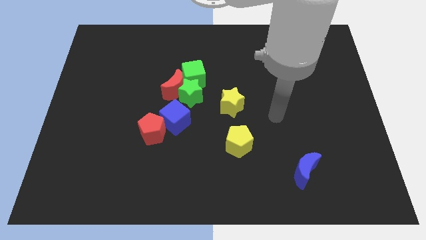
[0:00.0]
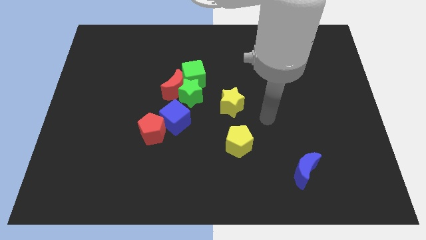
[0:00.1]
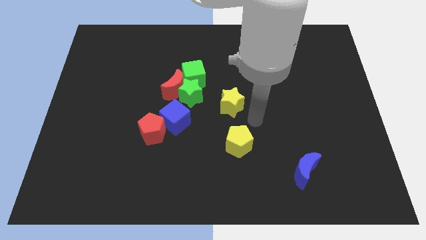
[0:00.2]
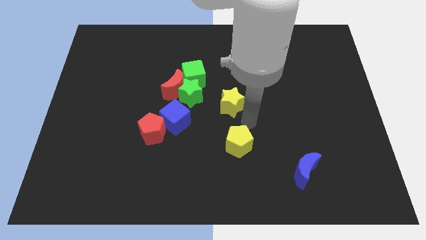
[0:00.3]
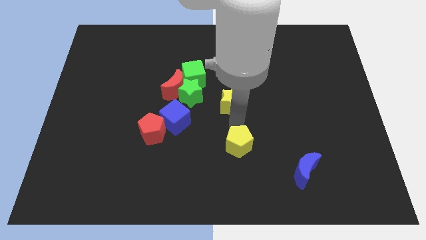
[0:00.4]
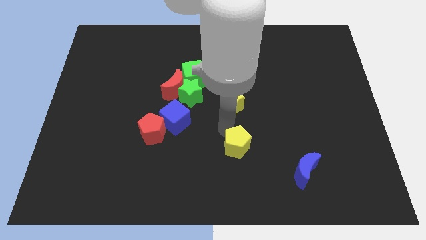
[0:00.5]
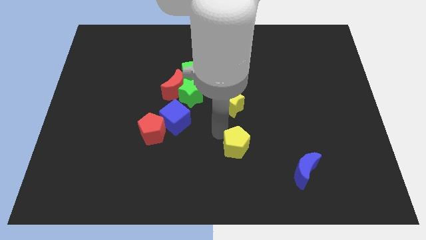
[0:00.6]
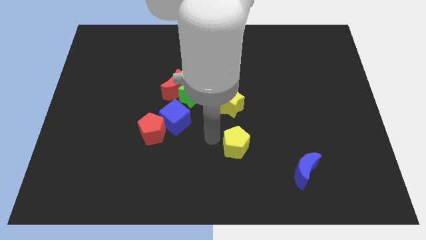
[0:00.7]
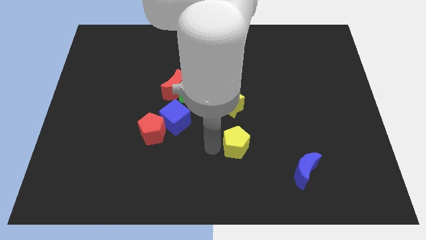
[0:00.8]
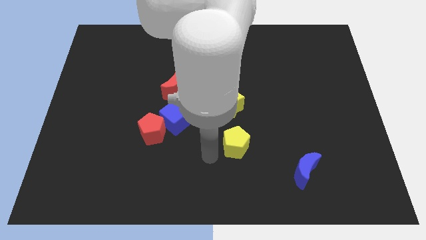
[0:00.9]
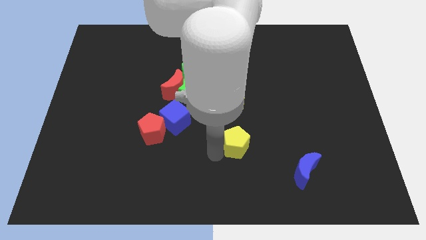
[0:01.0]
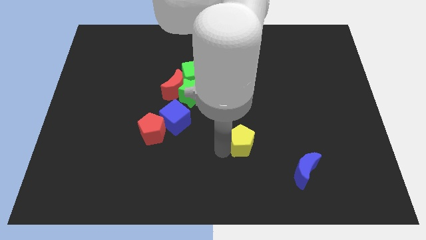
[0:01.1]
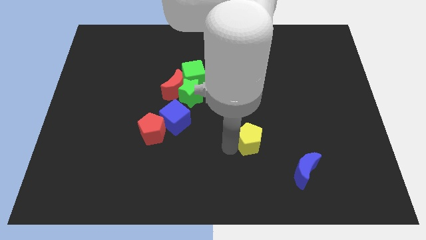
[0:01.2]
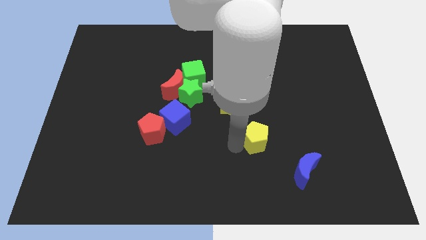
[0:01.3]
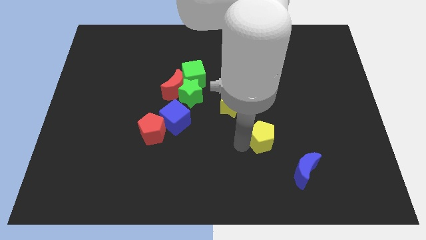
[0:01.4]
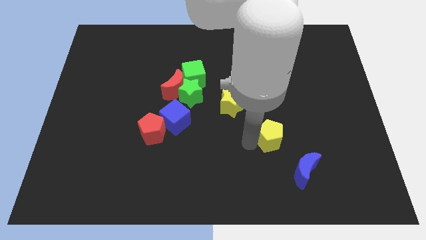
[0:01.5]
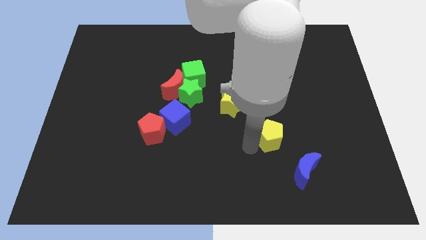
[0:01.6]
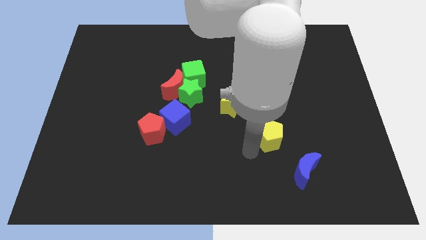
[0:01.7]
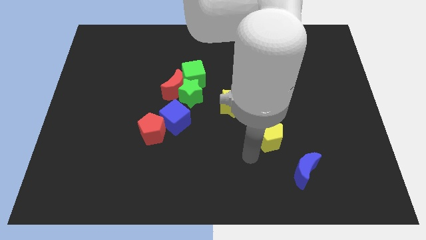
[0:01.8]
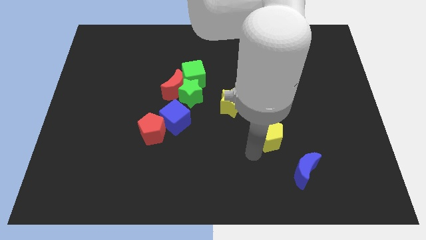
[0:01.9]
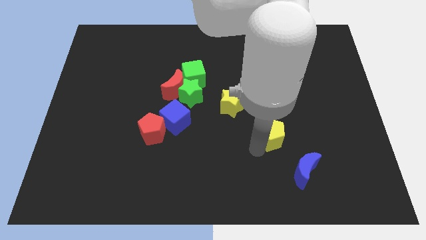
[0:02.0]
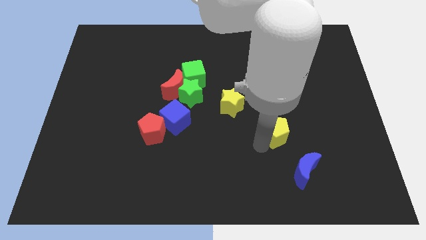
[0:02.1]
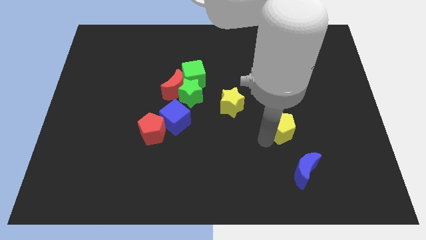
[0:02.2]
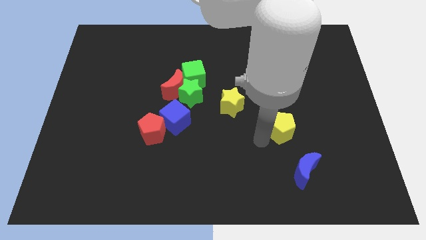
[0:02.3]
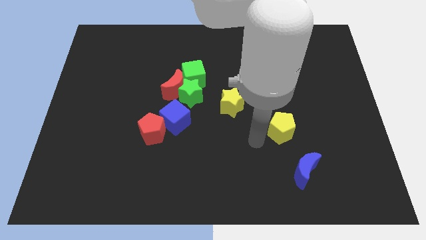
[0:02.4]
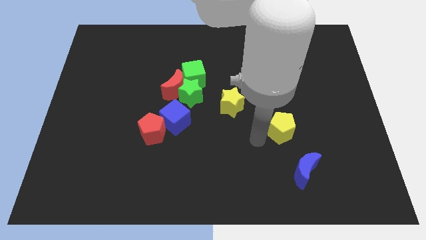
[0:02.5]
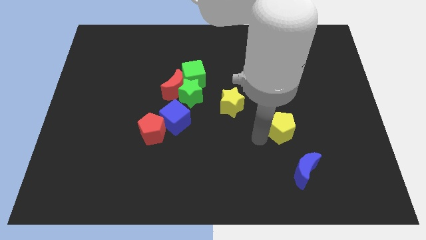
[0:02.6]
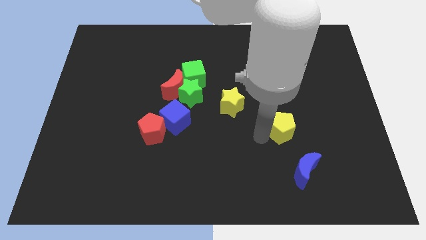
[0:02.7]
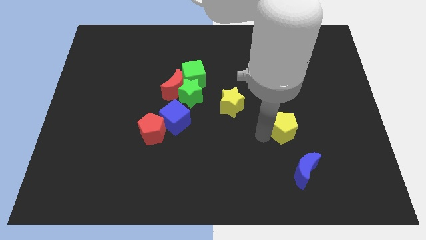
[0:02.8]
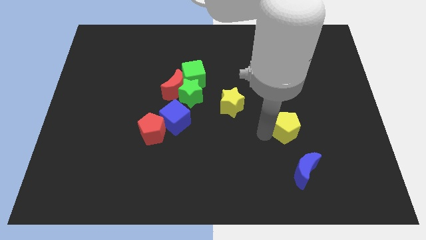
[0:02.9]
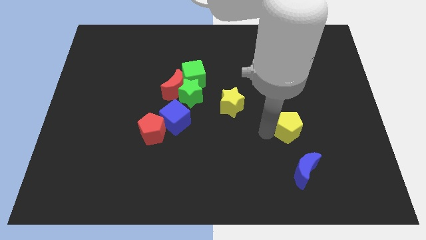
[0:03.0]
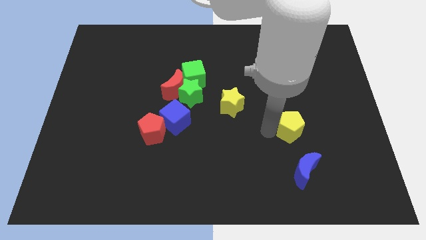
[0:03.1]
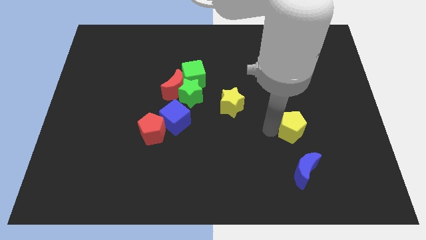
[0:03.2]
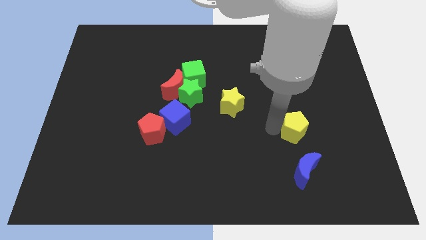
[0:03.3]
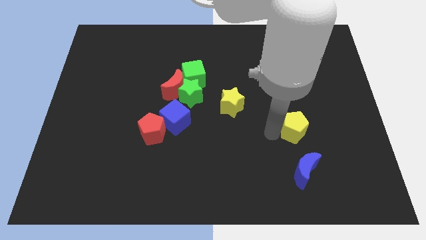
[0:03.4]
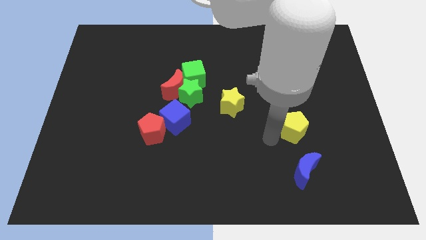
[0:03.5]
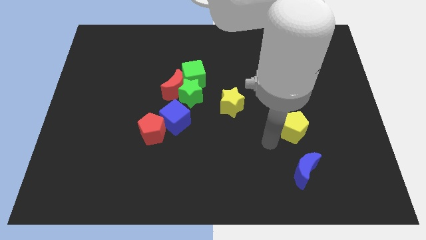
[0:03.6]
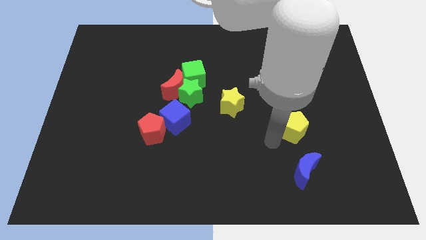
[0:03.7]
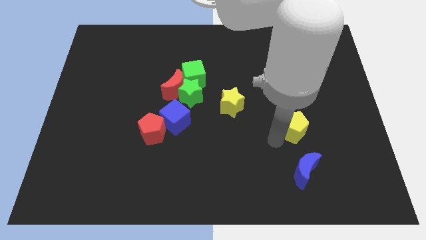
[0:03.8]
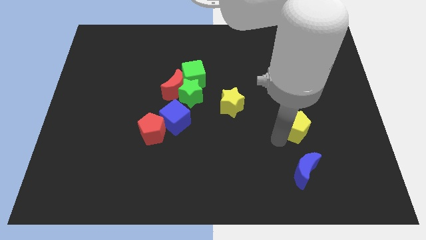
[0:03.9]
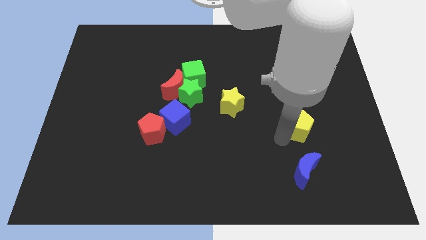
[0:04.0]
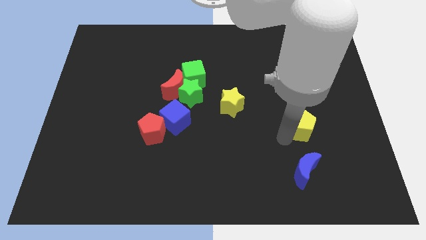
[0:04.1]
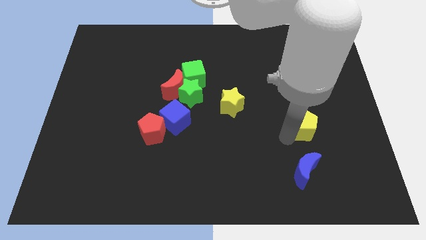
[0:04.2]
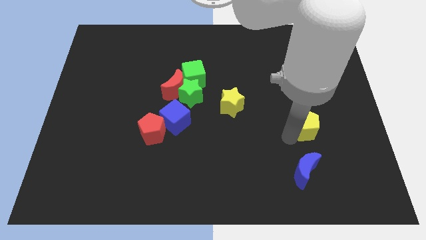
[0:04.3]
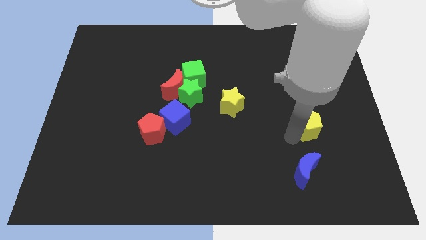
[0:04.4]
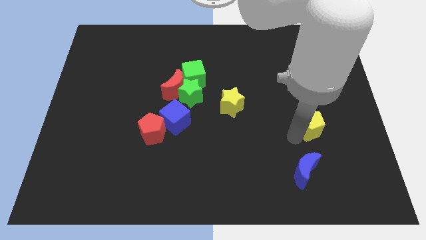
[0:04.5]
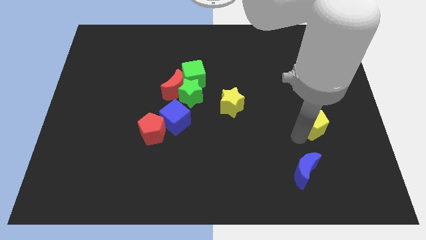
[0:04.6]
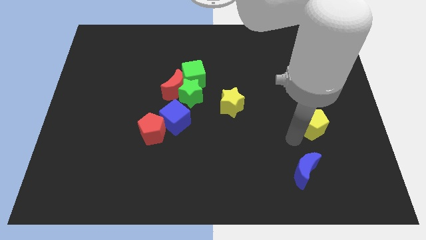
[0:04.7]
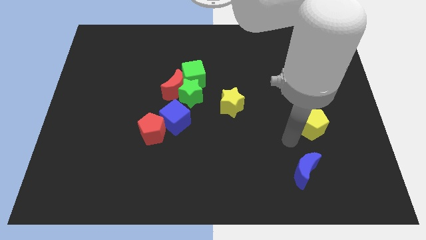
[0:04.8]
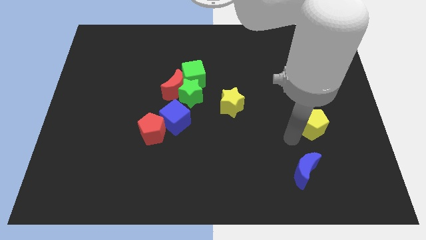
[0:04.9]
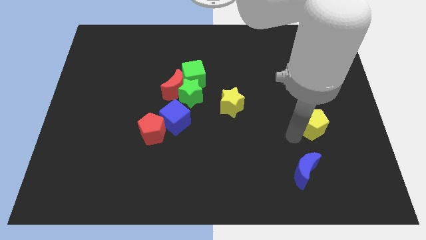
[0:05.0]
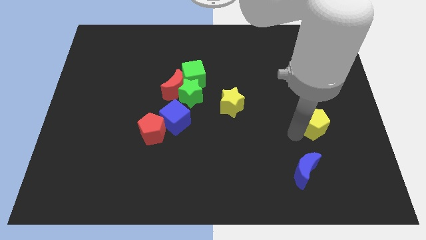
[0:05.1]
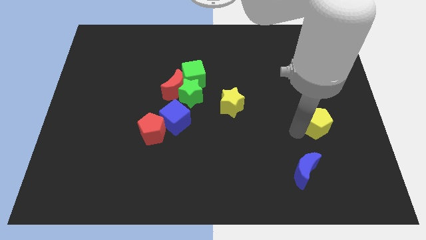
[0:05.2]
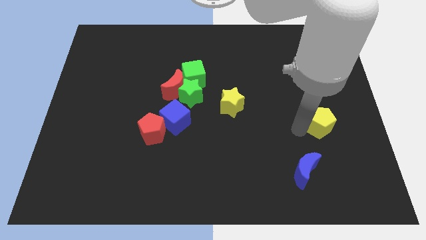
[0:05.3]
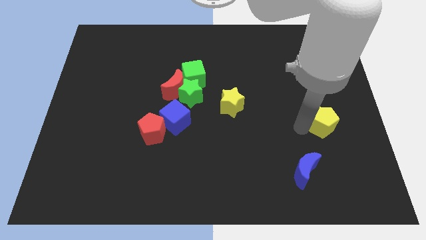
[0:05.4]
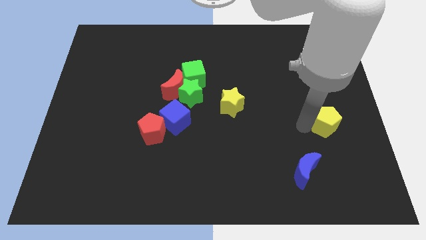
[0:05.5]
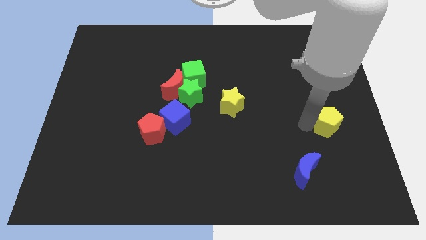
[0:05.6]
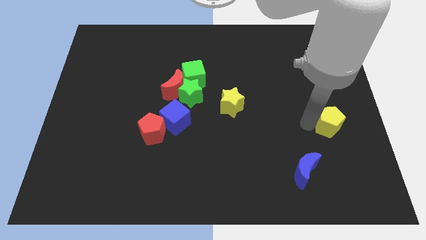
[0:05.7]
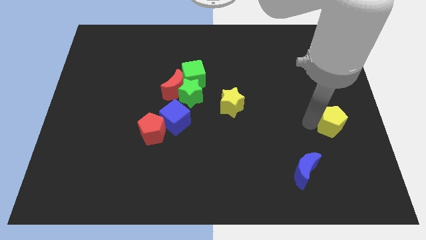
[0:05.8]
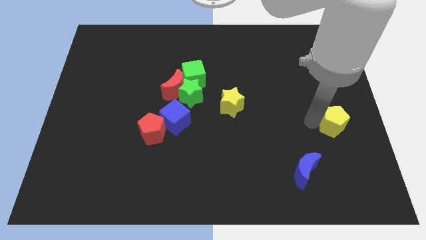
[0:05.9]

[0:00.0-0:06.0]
slide the yellow pentagon to the right side of the board

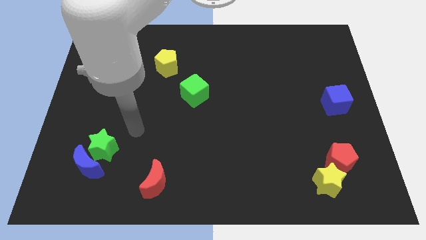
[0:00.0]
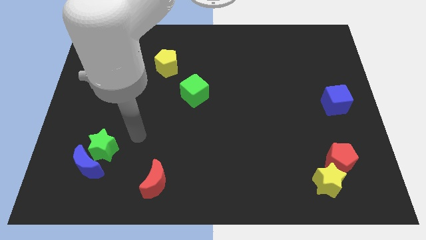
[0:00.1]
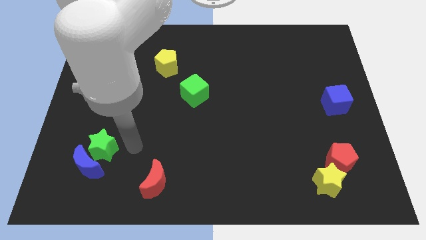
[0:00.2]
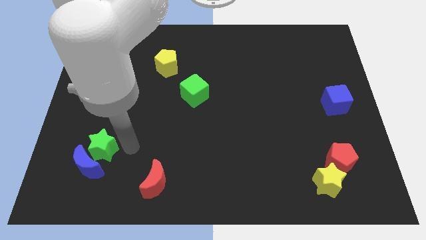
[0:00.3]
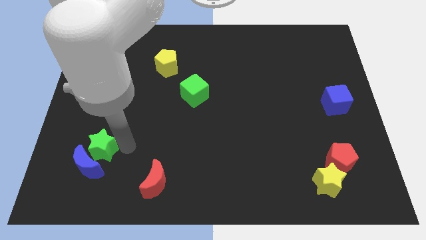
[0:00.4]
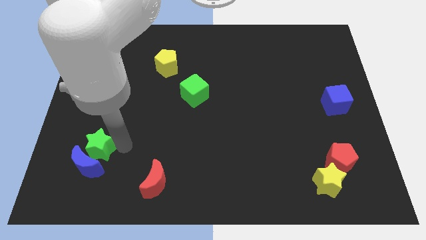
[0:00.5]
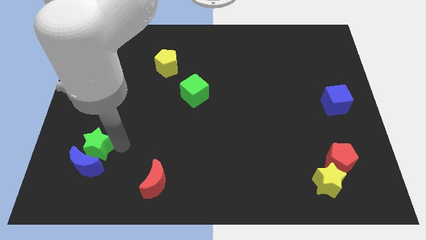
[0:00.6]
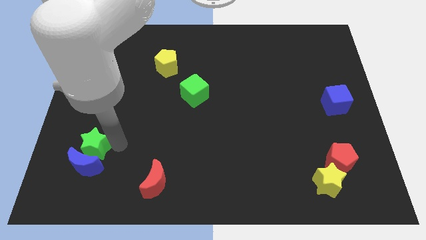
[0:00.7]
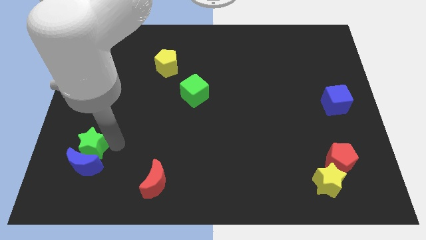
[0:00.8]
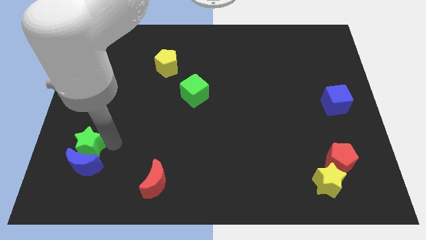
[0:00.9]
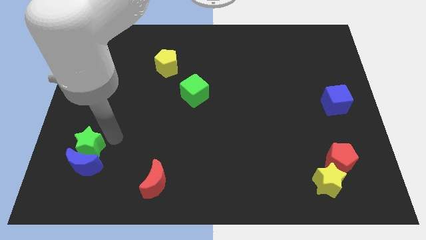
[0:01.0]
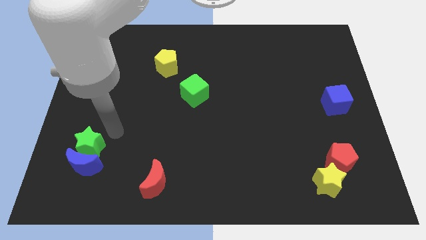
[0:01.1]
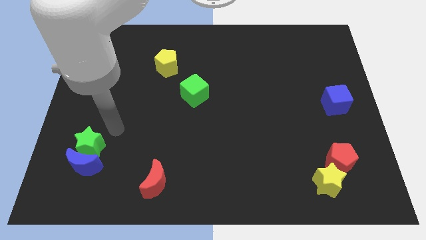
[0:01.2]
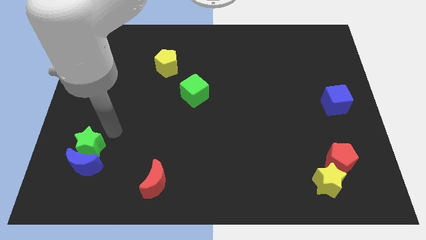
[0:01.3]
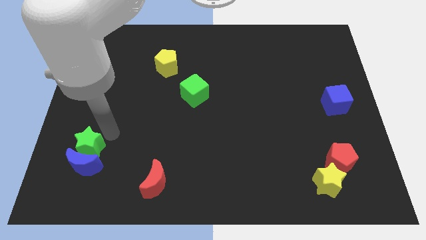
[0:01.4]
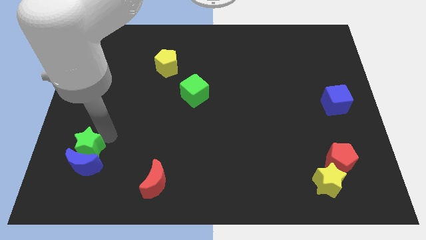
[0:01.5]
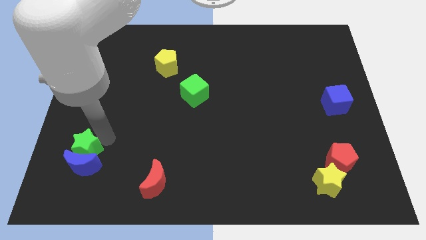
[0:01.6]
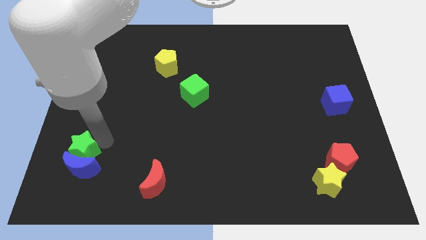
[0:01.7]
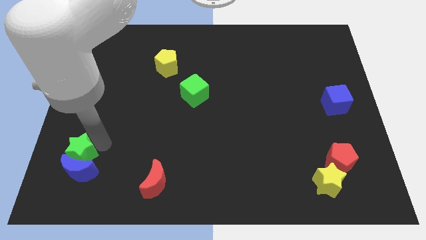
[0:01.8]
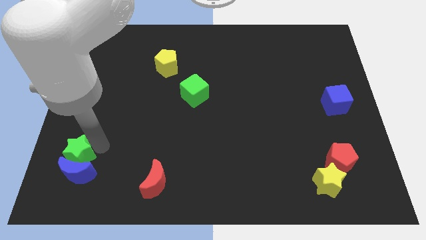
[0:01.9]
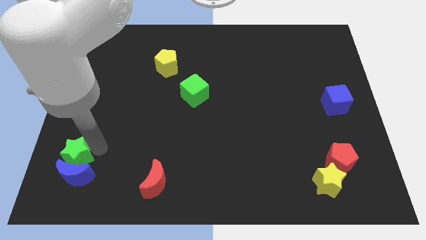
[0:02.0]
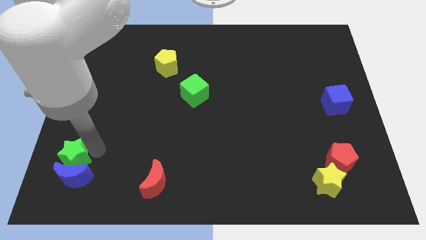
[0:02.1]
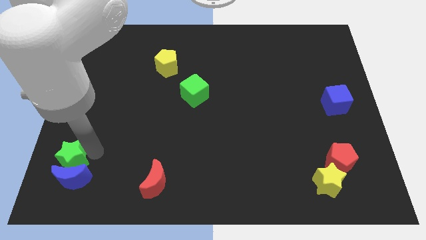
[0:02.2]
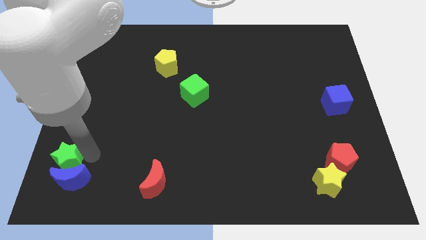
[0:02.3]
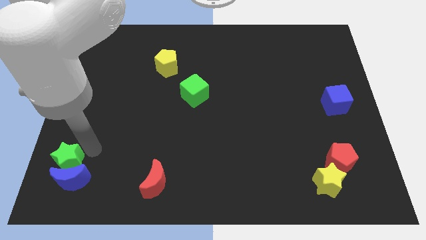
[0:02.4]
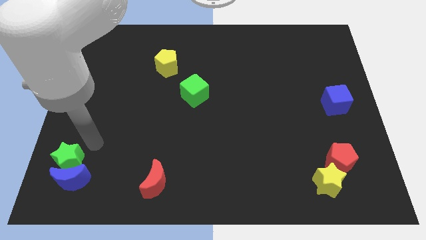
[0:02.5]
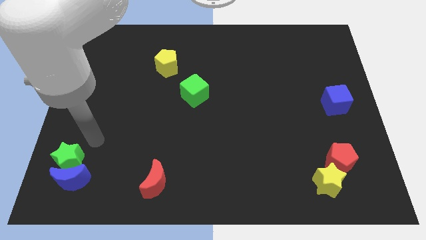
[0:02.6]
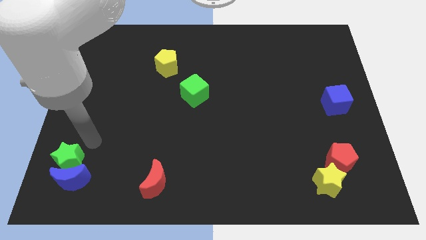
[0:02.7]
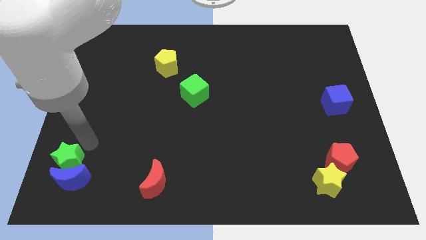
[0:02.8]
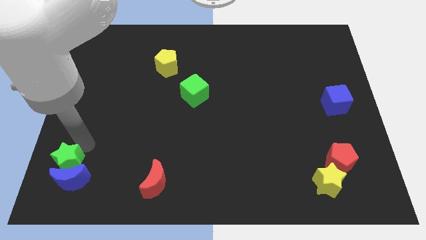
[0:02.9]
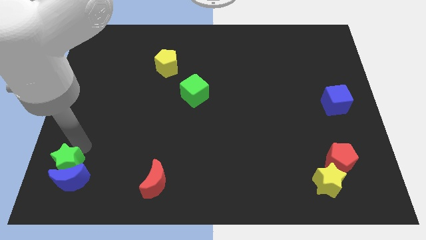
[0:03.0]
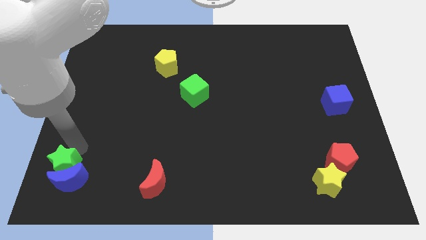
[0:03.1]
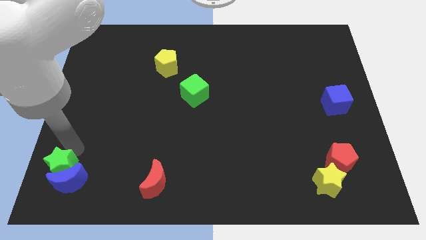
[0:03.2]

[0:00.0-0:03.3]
put the green star to the bottom left corner
